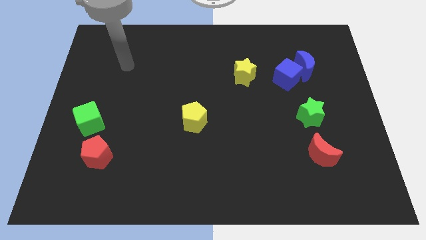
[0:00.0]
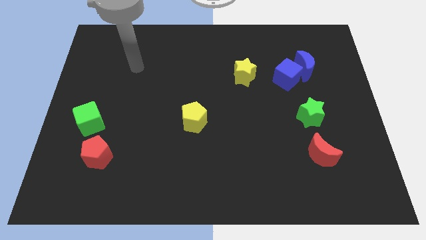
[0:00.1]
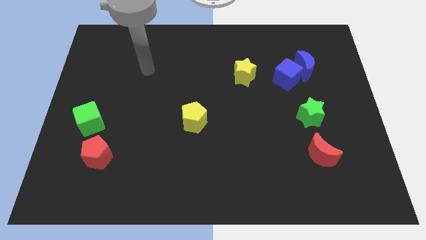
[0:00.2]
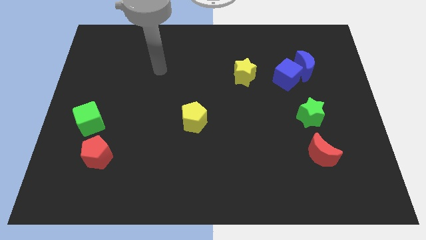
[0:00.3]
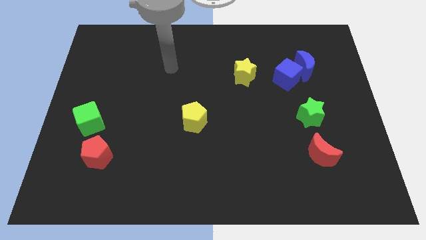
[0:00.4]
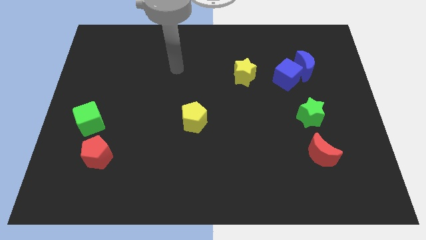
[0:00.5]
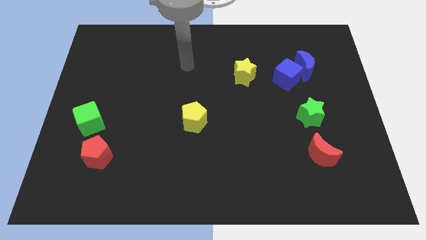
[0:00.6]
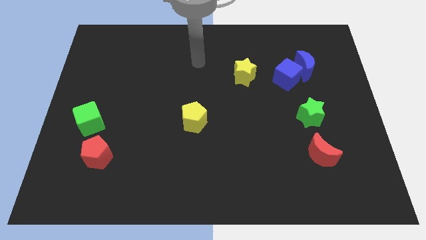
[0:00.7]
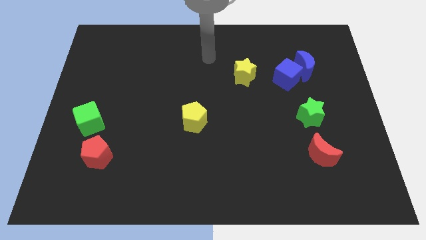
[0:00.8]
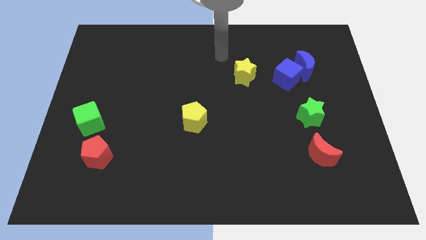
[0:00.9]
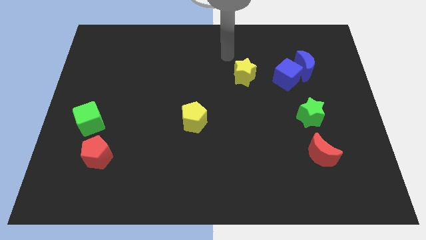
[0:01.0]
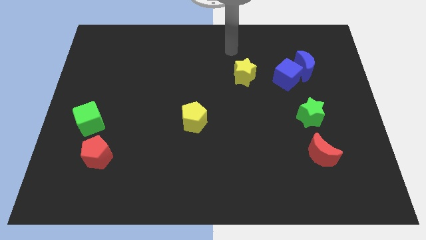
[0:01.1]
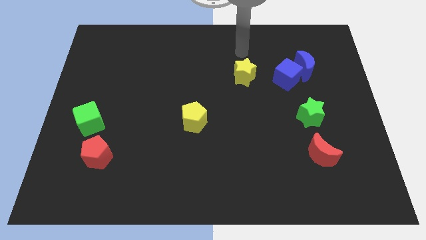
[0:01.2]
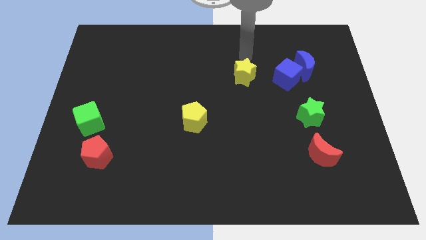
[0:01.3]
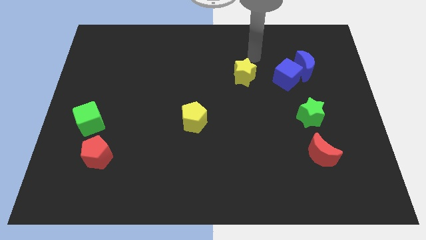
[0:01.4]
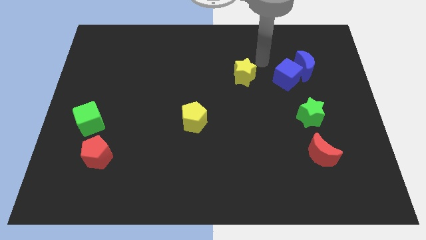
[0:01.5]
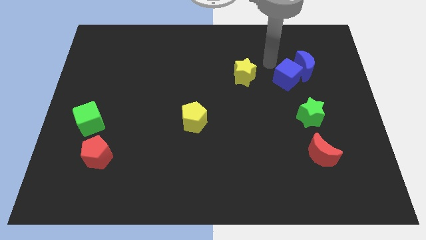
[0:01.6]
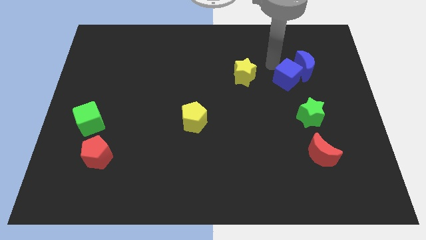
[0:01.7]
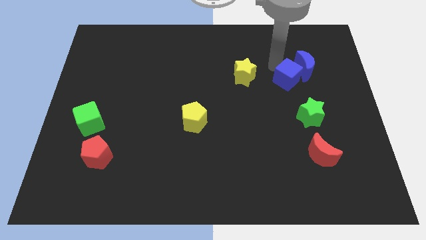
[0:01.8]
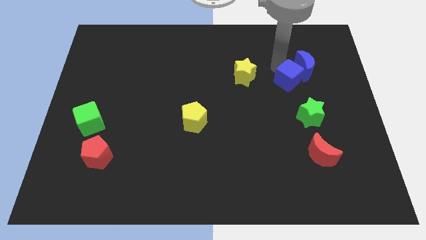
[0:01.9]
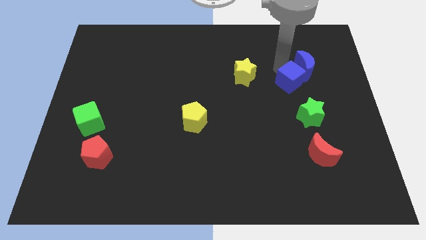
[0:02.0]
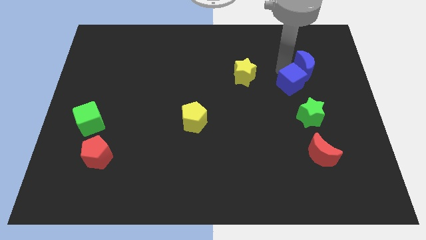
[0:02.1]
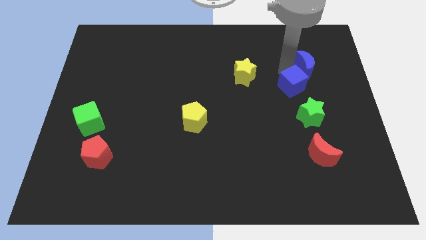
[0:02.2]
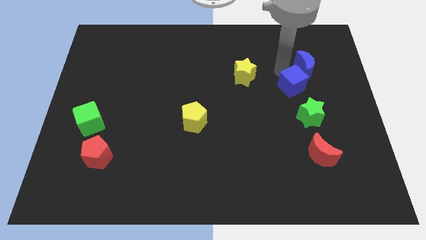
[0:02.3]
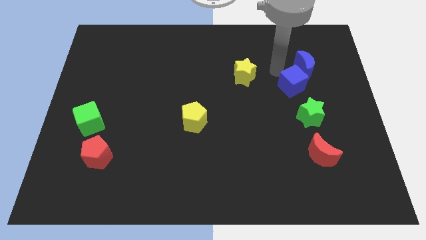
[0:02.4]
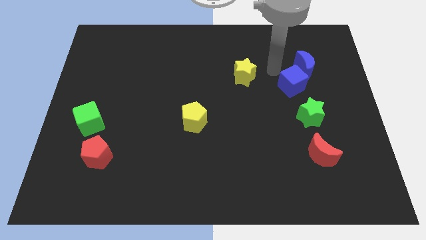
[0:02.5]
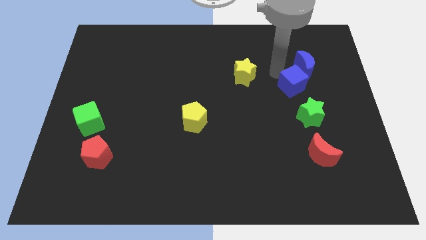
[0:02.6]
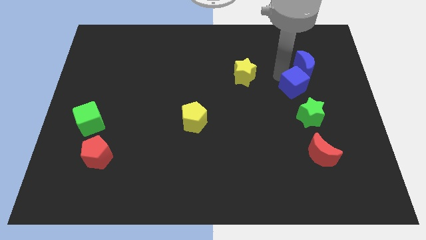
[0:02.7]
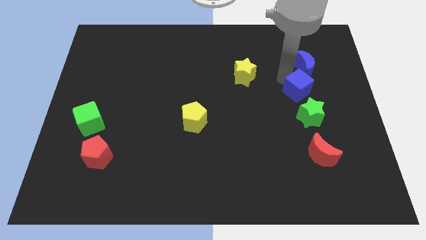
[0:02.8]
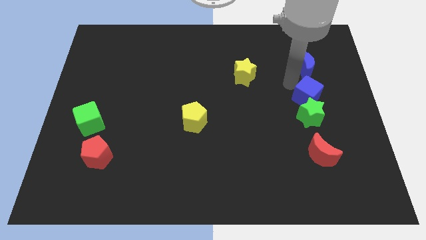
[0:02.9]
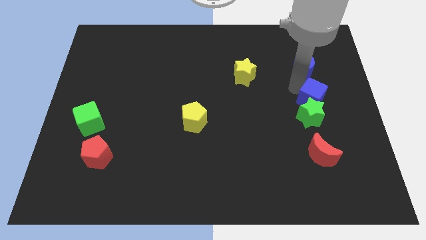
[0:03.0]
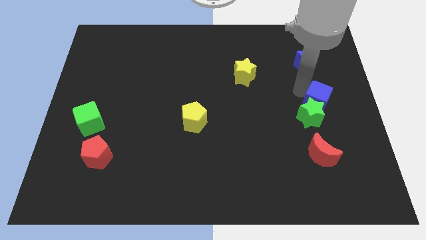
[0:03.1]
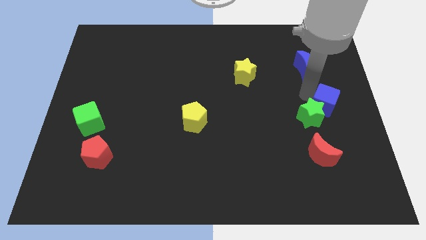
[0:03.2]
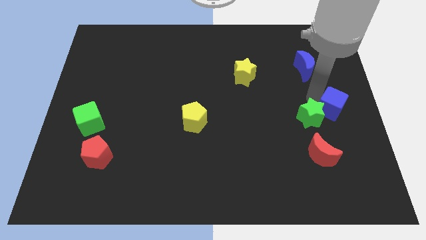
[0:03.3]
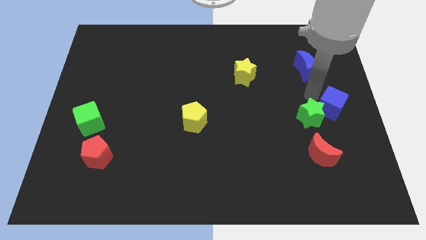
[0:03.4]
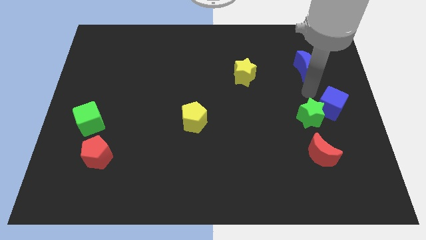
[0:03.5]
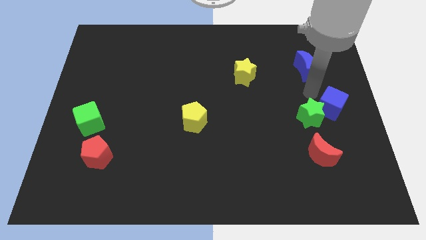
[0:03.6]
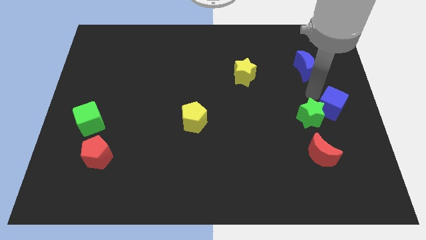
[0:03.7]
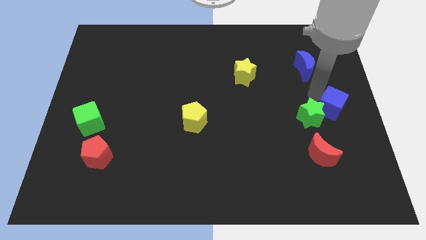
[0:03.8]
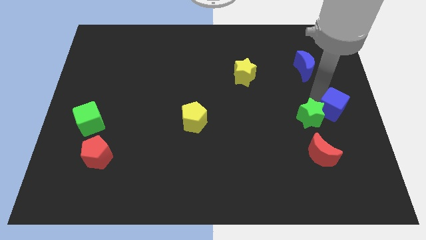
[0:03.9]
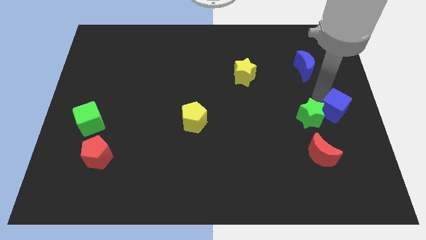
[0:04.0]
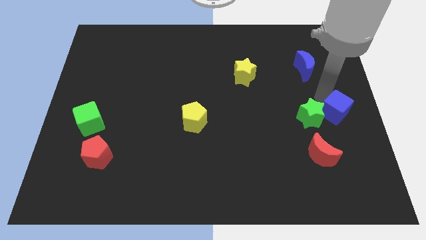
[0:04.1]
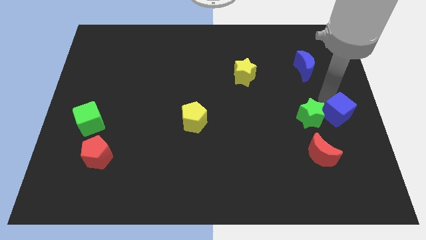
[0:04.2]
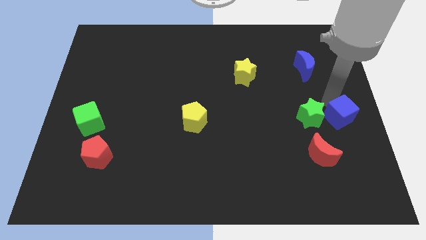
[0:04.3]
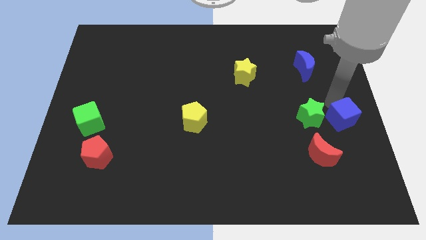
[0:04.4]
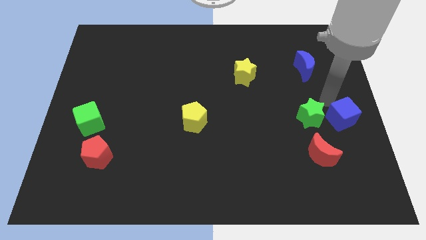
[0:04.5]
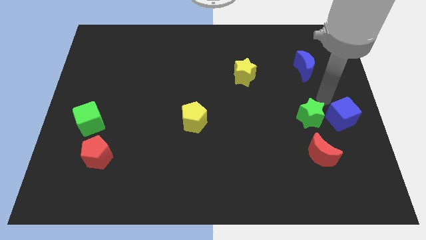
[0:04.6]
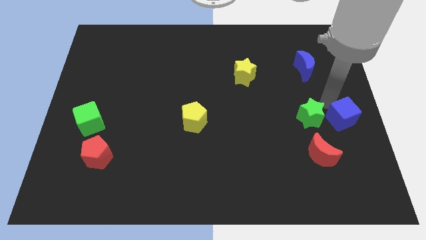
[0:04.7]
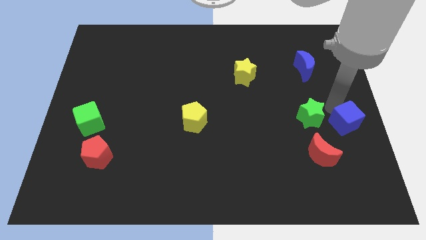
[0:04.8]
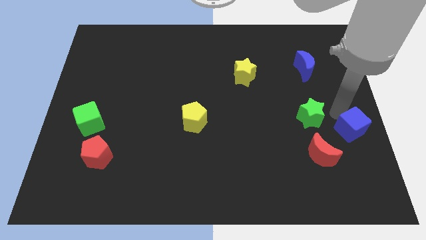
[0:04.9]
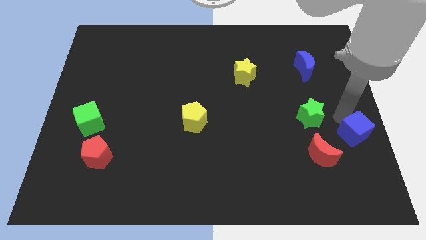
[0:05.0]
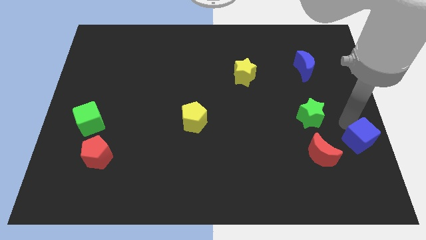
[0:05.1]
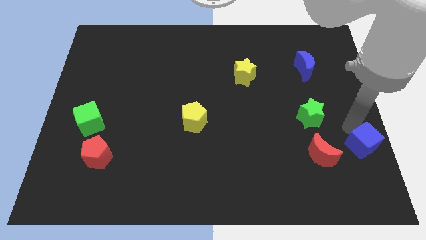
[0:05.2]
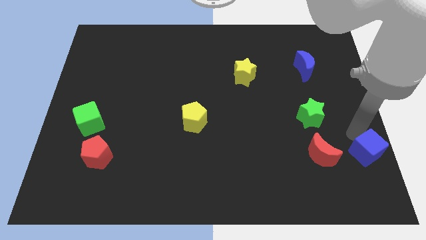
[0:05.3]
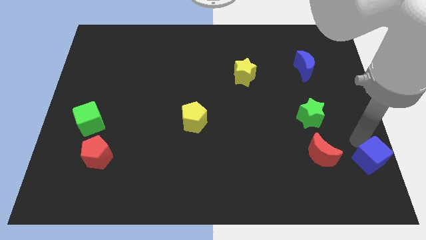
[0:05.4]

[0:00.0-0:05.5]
push the blue cube to the bottom right of the board

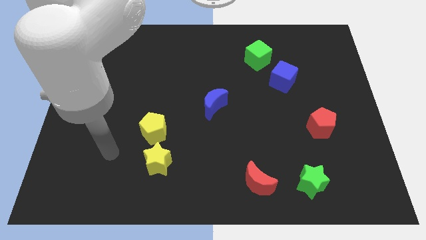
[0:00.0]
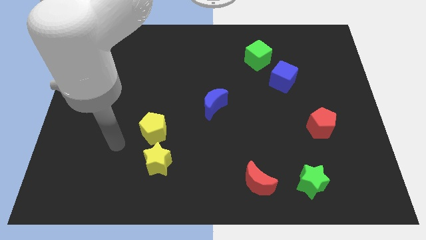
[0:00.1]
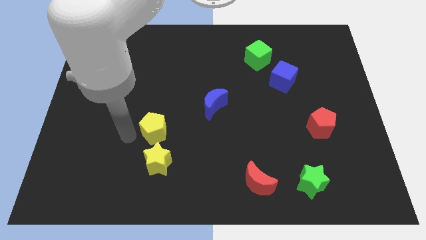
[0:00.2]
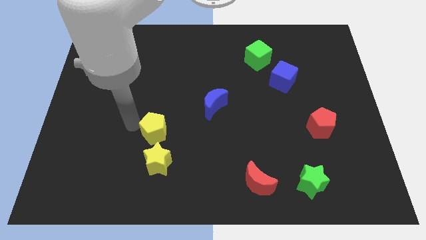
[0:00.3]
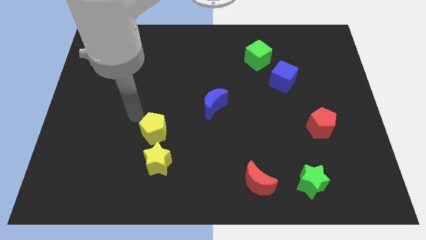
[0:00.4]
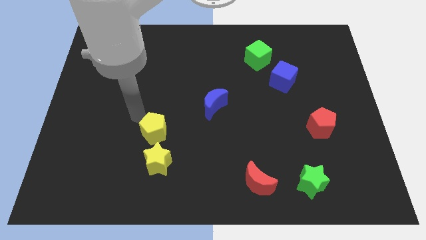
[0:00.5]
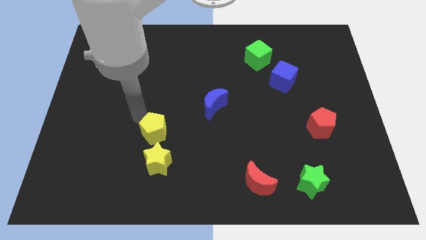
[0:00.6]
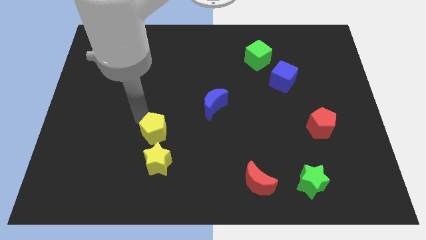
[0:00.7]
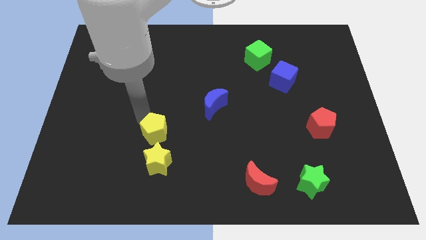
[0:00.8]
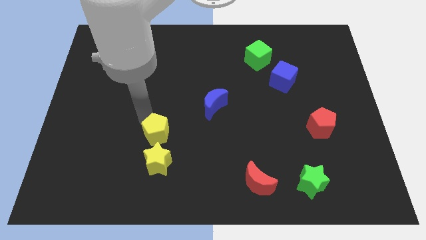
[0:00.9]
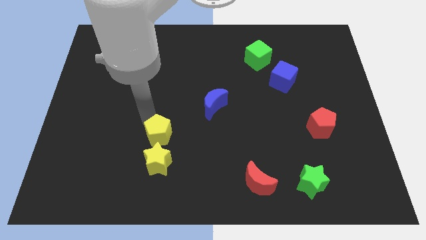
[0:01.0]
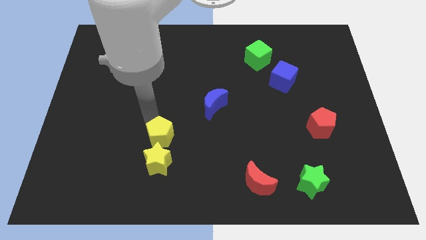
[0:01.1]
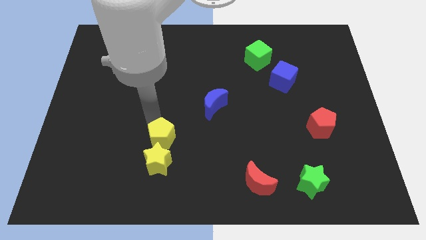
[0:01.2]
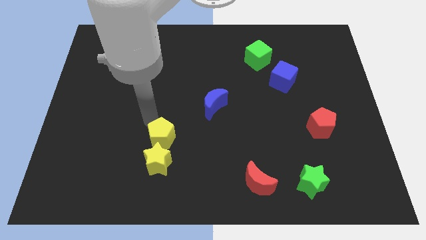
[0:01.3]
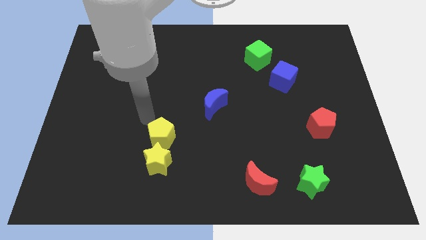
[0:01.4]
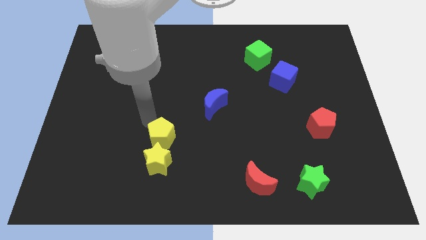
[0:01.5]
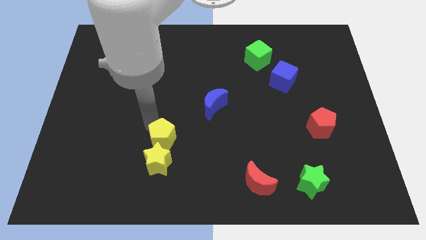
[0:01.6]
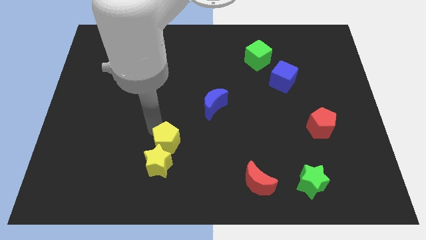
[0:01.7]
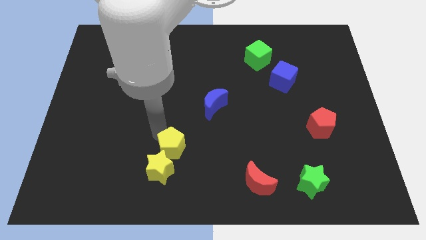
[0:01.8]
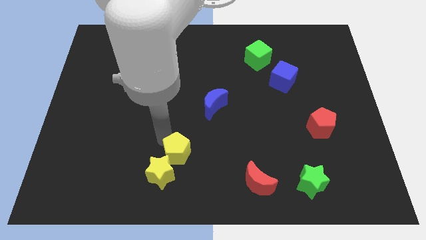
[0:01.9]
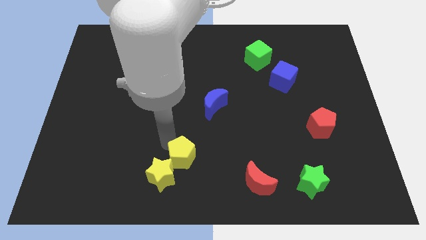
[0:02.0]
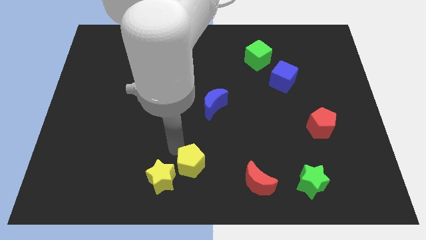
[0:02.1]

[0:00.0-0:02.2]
put the yellow pentagon to the bottom side
